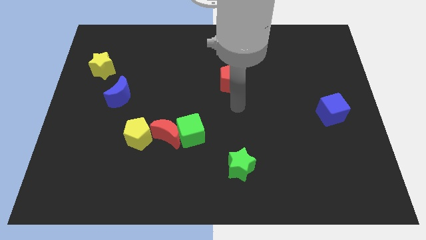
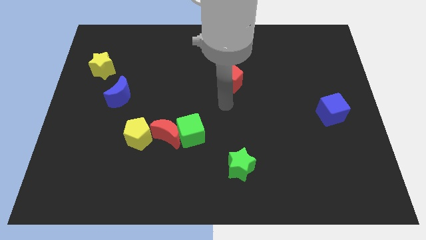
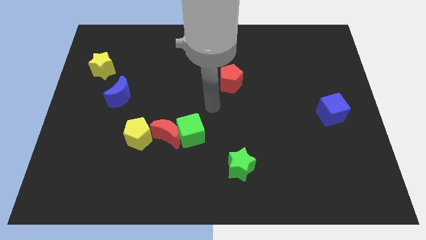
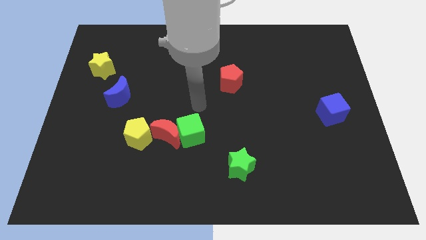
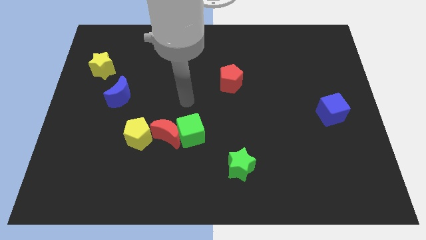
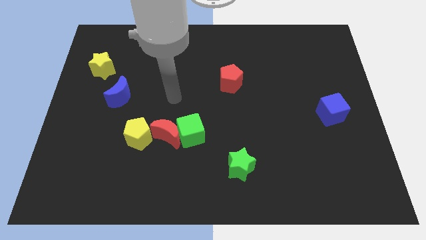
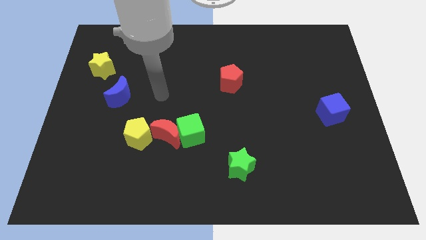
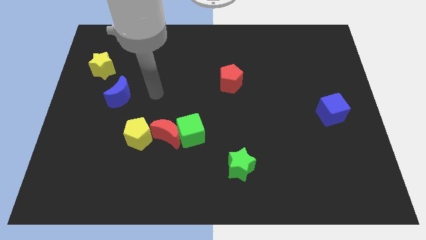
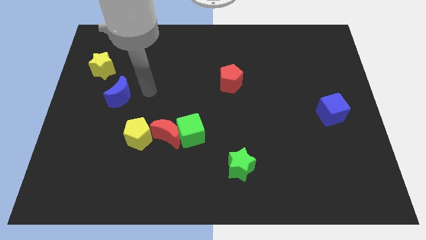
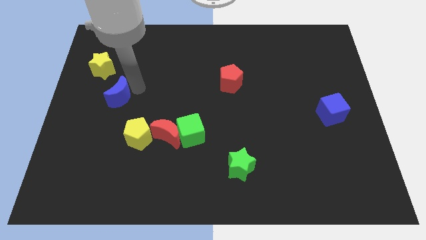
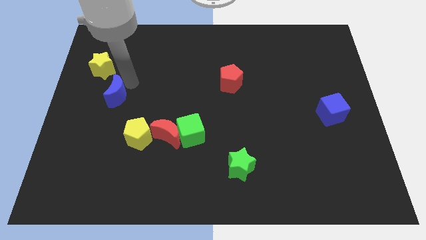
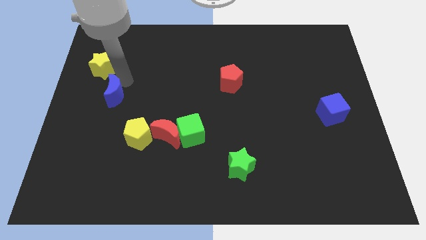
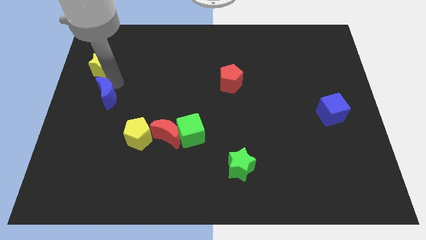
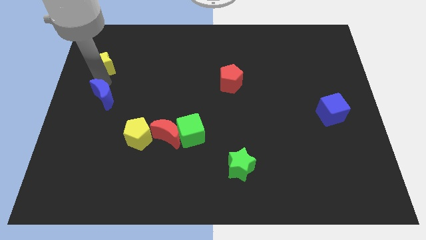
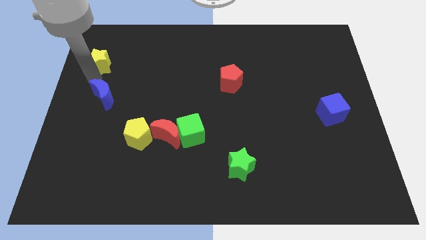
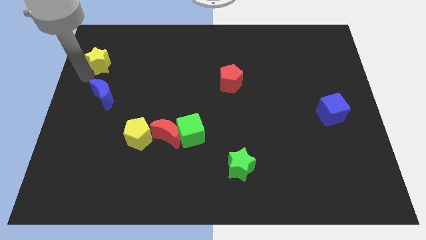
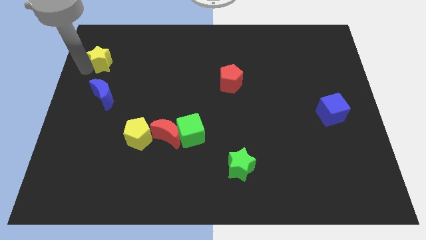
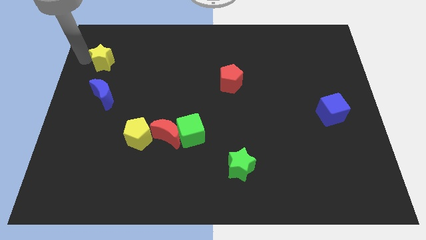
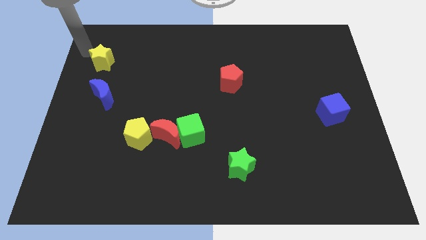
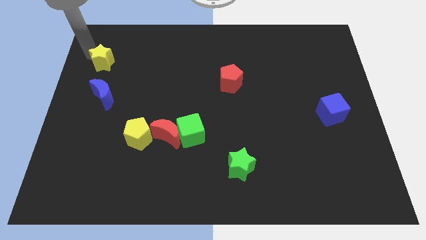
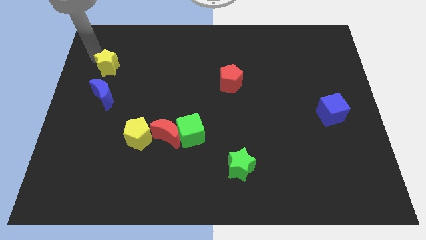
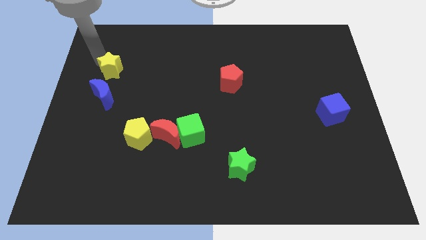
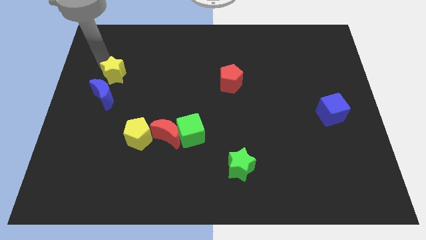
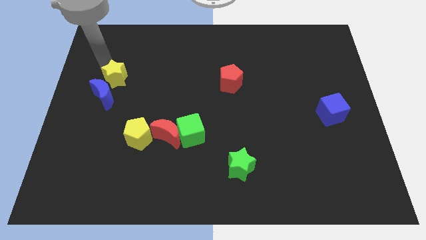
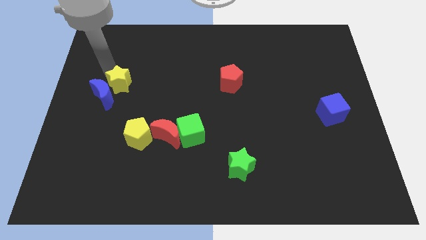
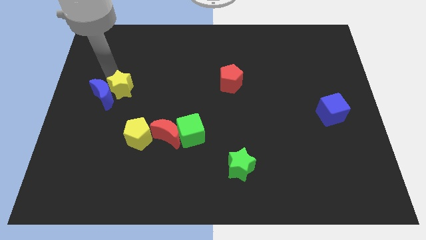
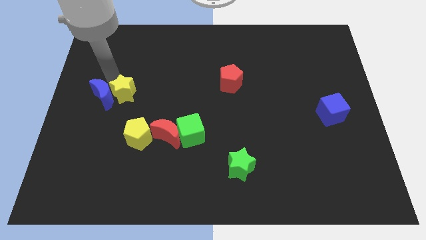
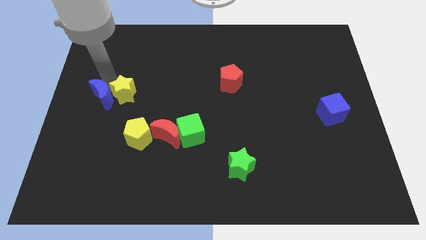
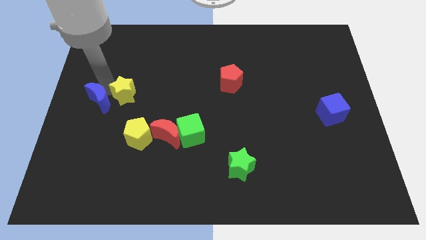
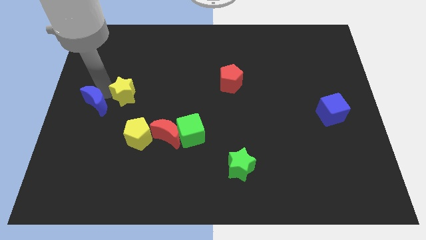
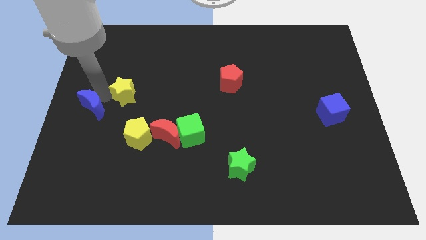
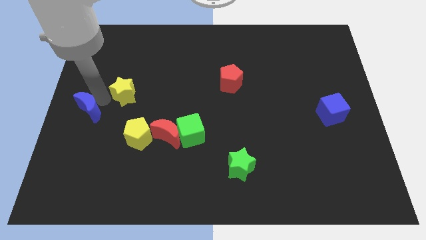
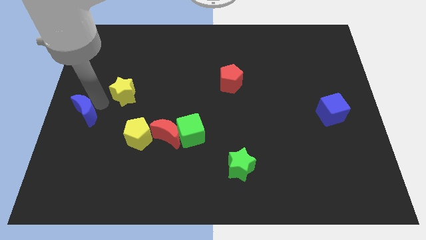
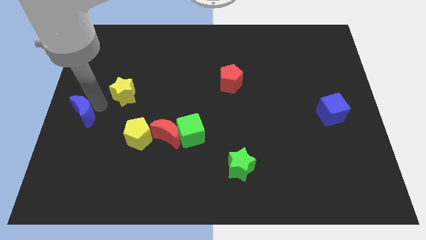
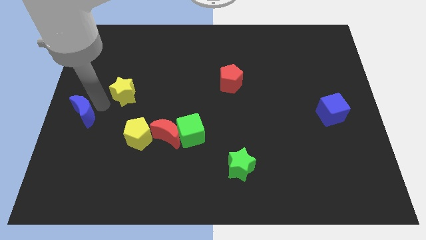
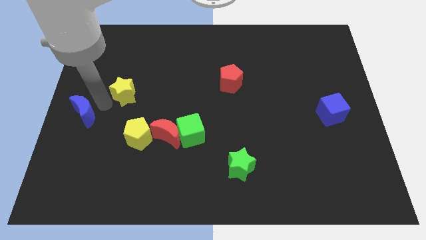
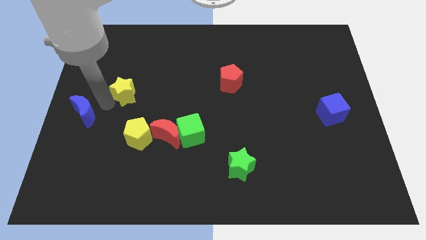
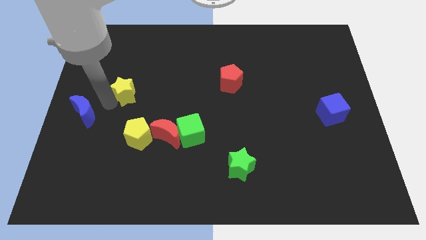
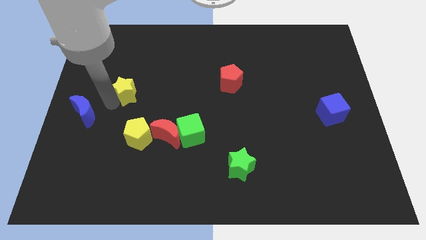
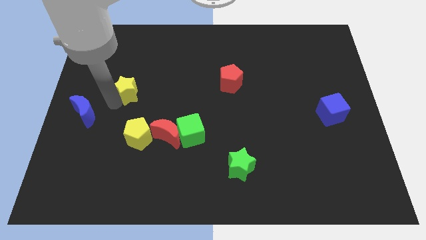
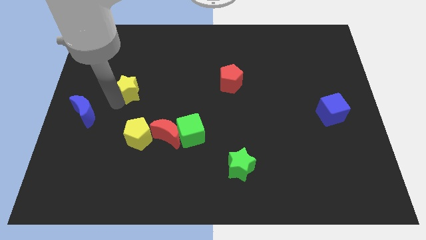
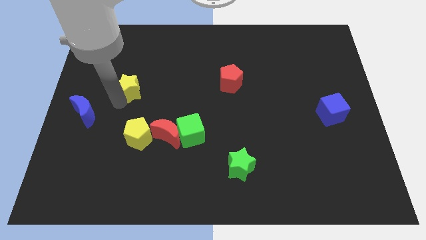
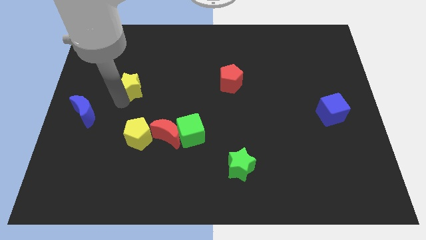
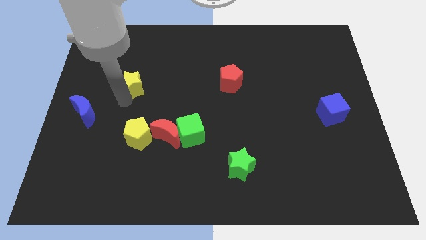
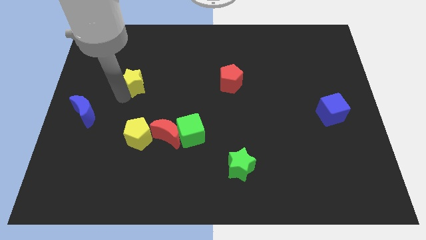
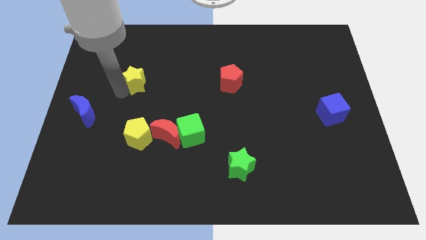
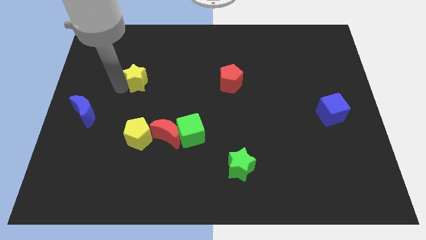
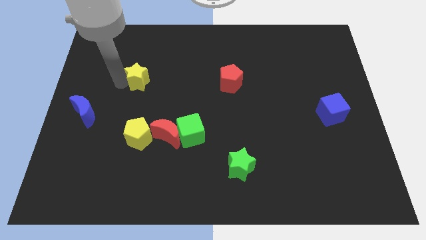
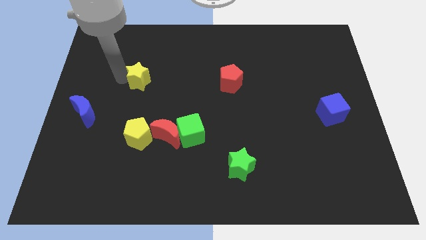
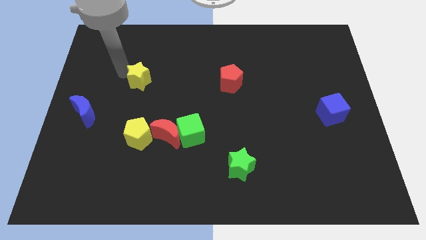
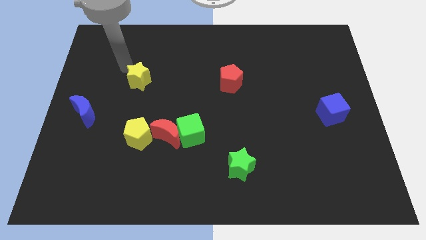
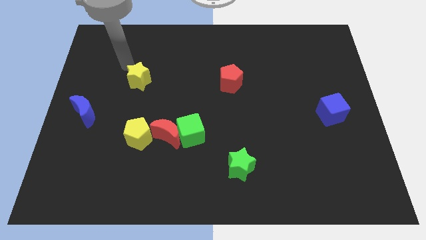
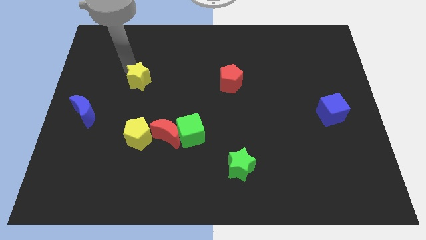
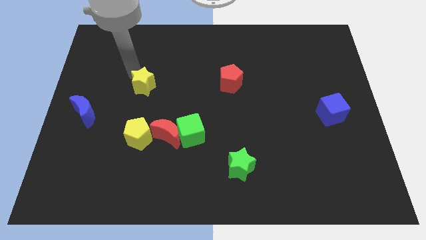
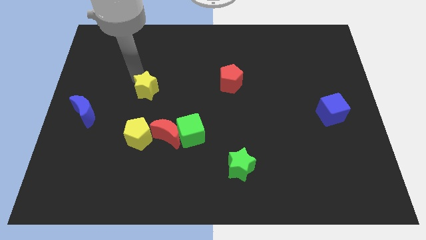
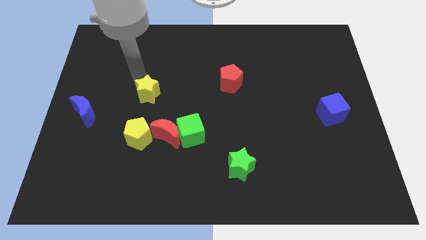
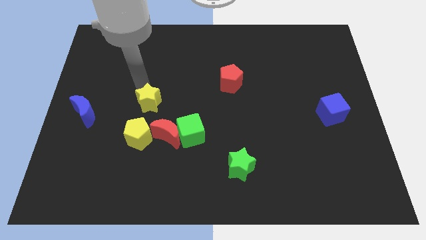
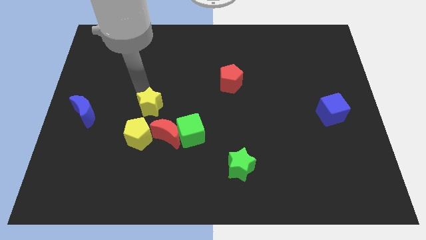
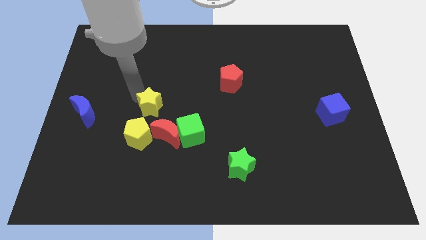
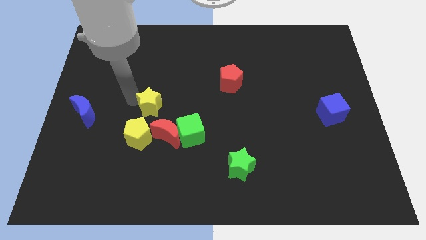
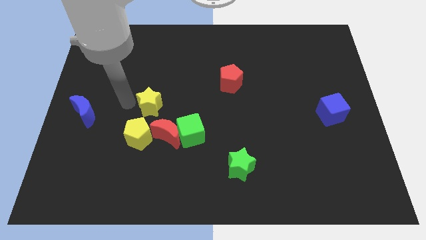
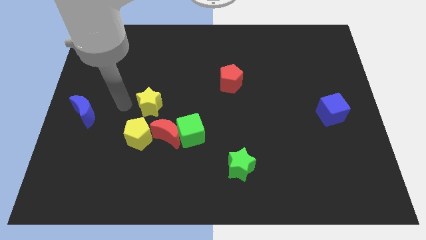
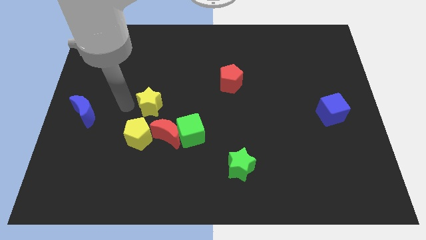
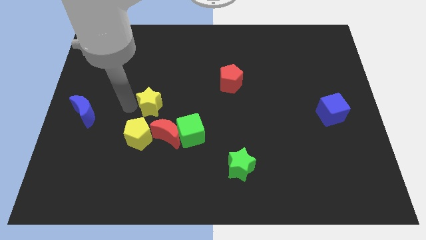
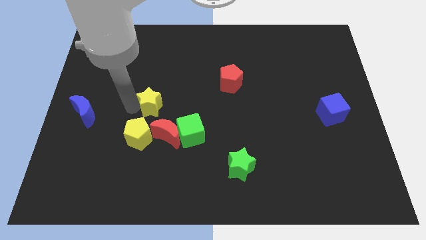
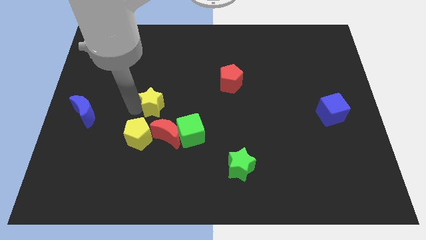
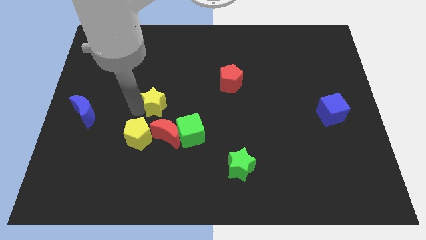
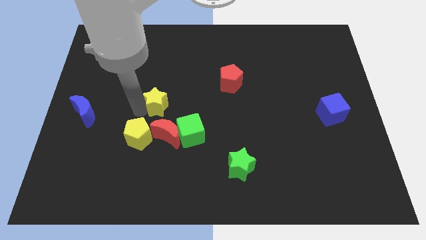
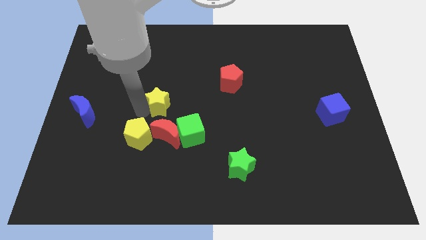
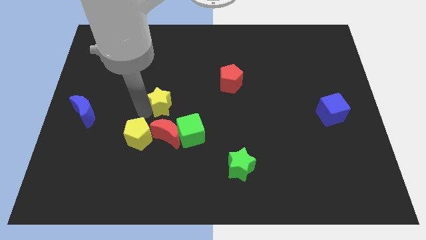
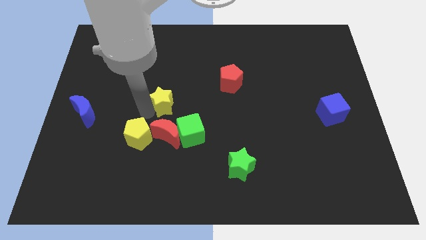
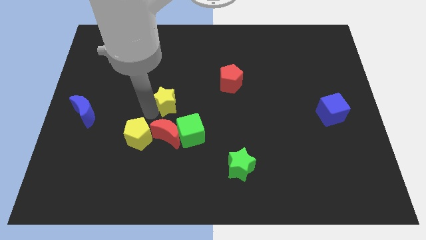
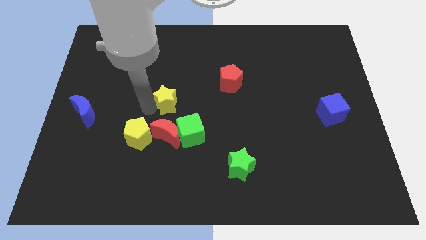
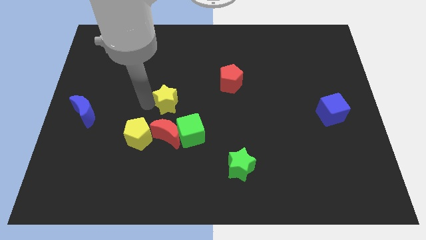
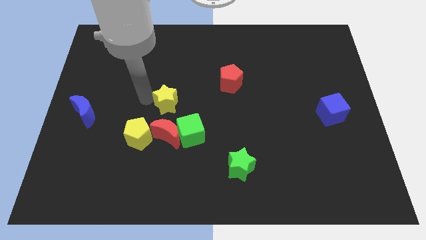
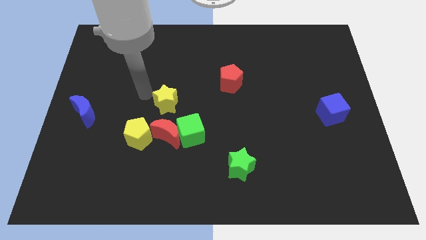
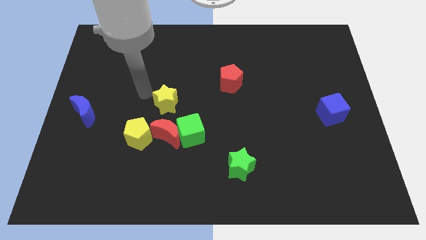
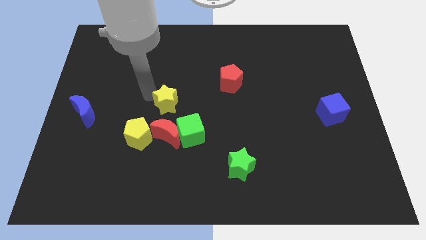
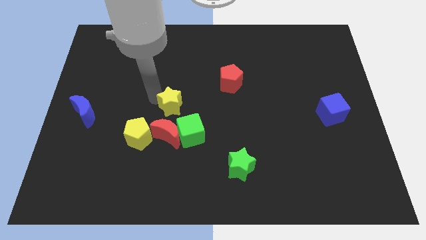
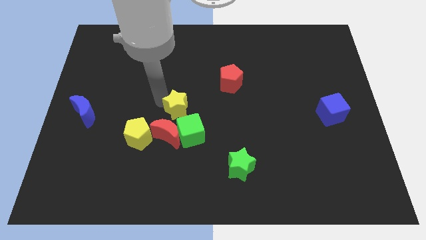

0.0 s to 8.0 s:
move the yellow star to the top right of the red moon
